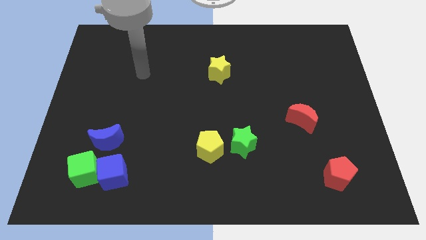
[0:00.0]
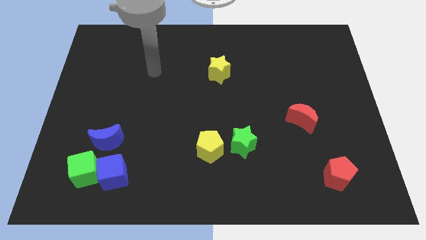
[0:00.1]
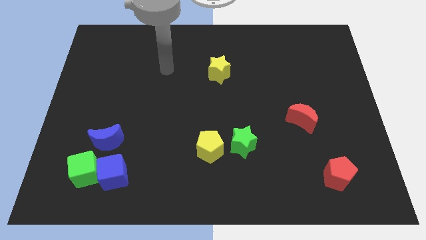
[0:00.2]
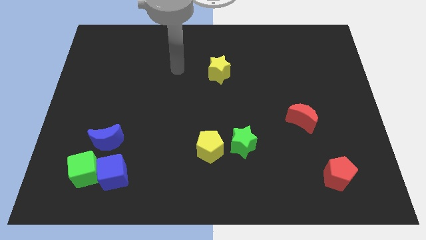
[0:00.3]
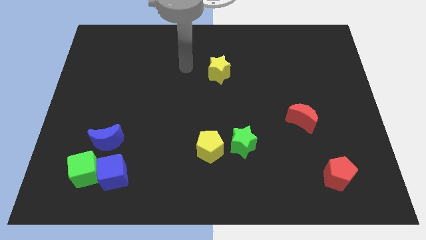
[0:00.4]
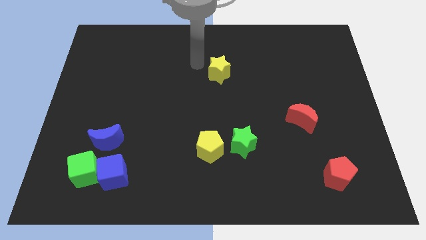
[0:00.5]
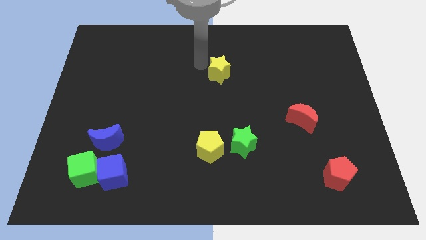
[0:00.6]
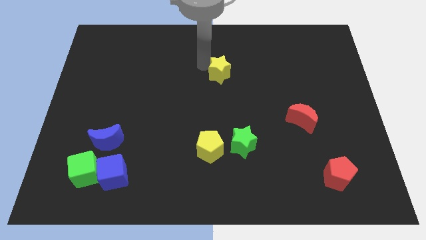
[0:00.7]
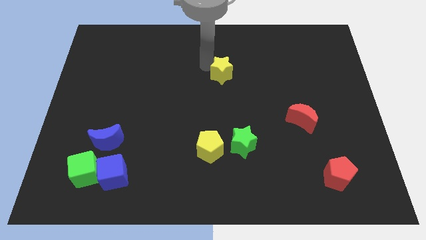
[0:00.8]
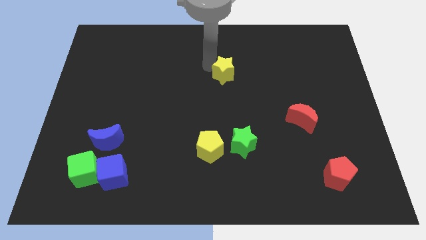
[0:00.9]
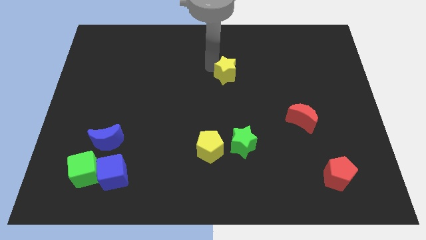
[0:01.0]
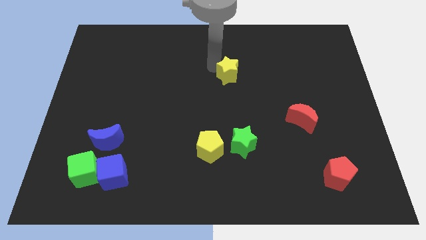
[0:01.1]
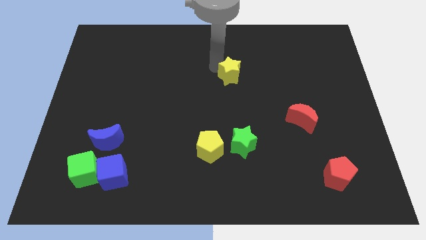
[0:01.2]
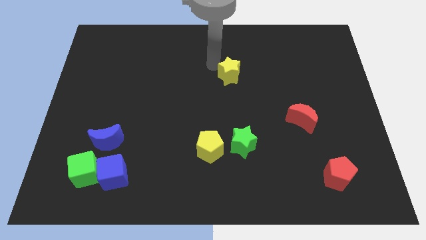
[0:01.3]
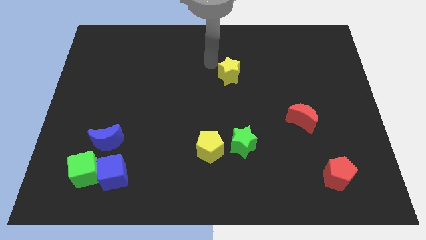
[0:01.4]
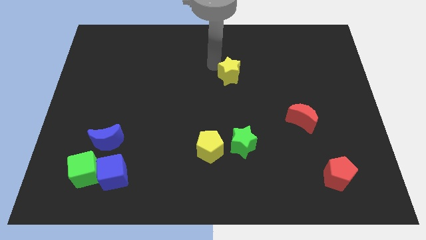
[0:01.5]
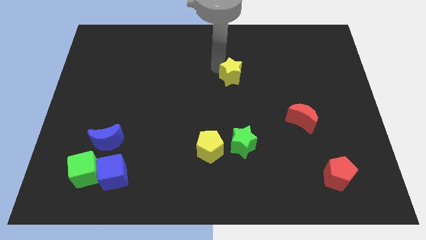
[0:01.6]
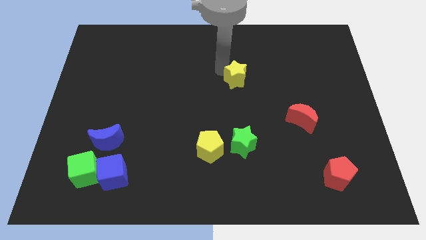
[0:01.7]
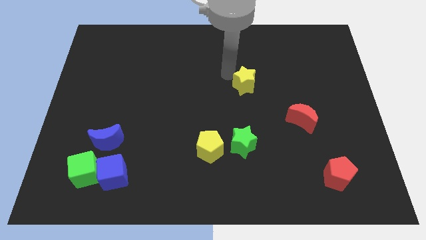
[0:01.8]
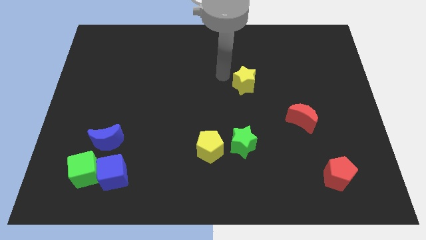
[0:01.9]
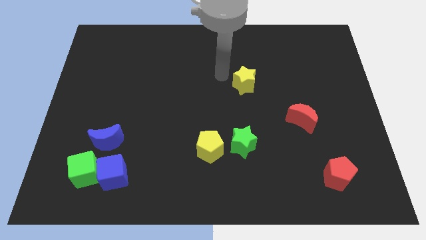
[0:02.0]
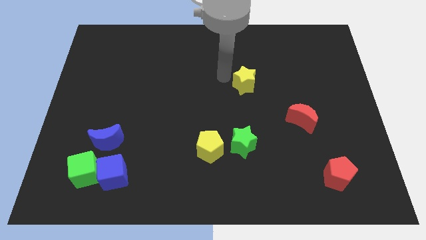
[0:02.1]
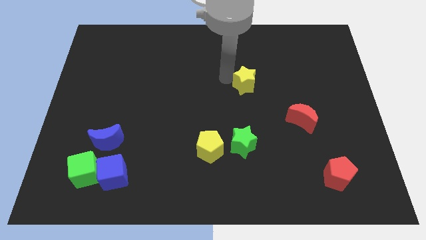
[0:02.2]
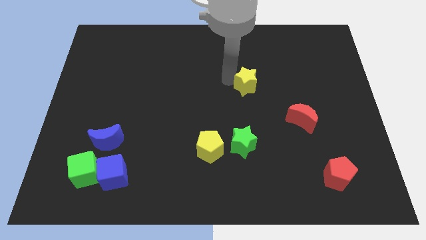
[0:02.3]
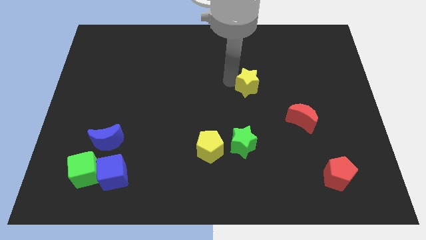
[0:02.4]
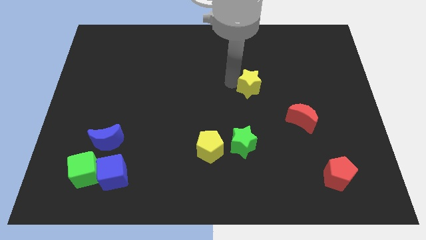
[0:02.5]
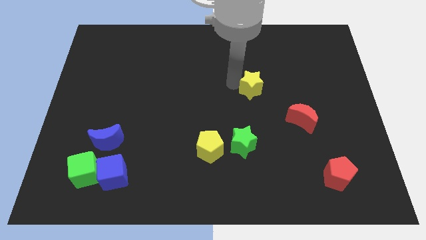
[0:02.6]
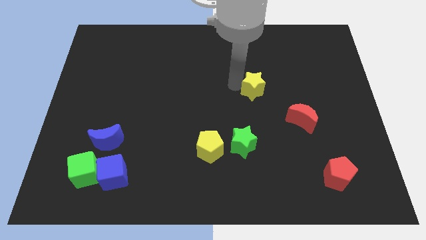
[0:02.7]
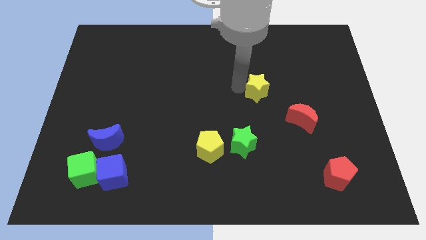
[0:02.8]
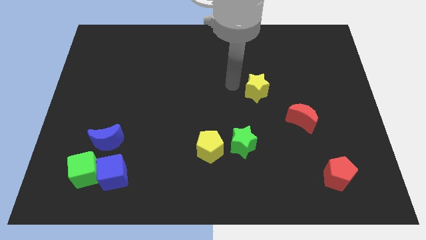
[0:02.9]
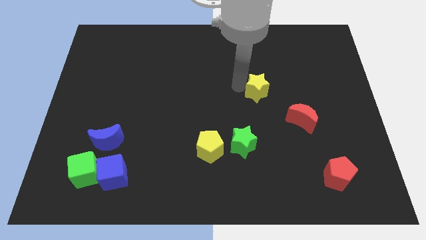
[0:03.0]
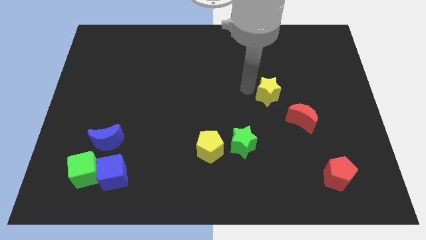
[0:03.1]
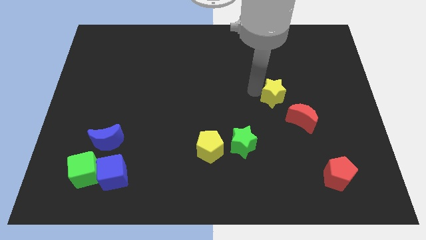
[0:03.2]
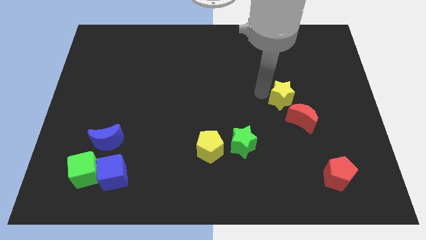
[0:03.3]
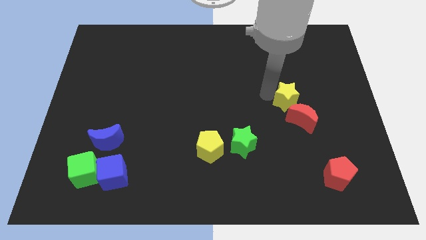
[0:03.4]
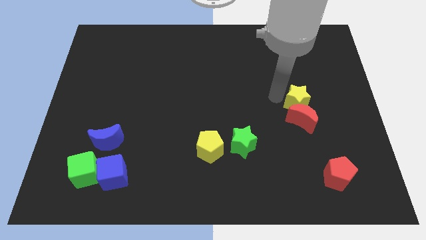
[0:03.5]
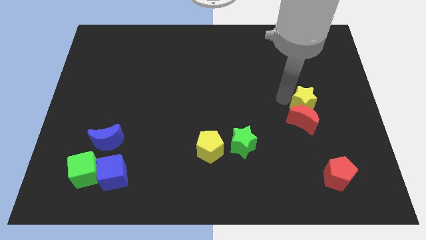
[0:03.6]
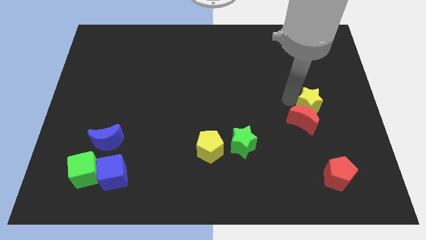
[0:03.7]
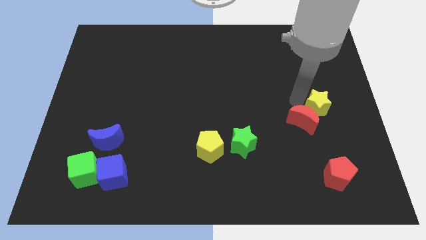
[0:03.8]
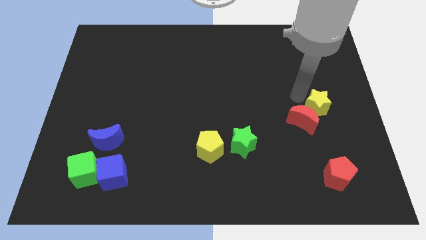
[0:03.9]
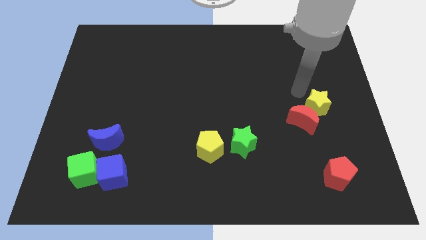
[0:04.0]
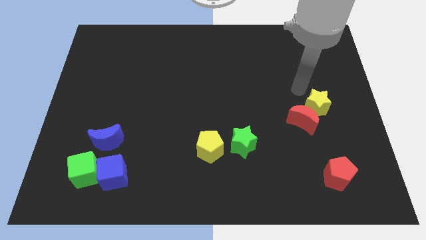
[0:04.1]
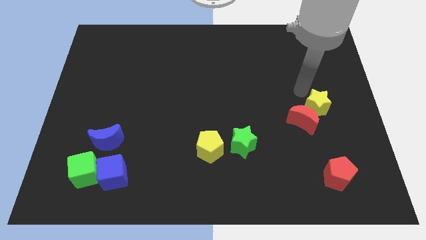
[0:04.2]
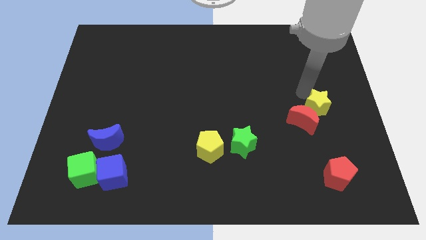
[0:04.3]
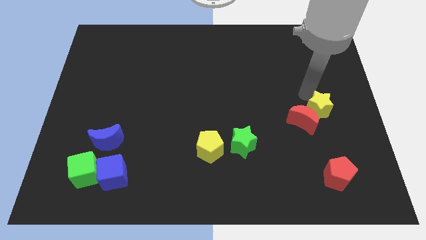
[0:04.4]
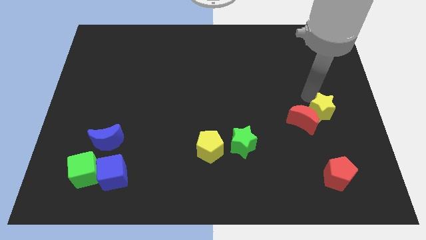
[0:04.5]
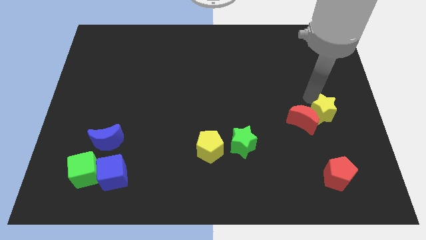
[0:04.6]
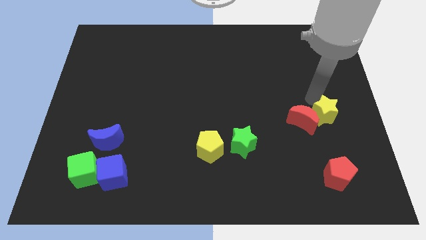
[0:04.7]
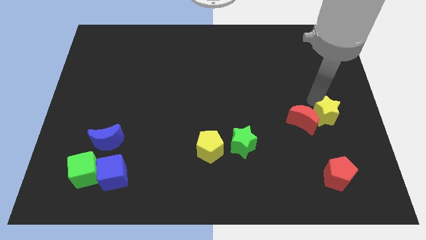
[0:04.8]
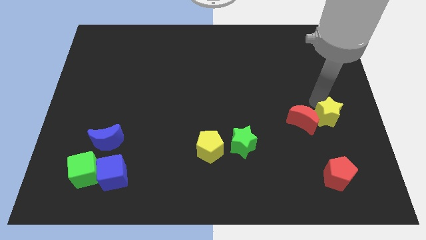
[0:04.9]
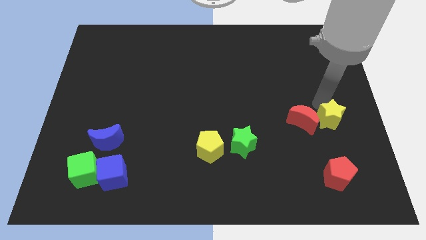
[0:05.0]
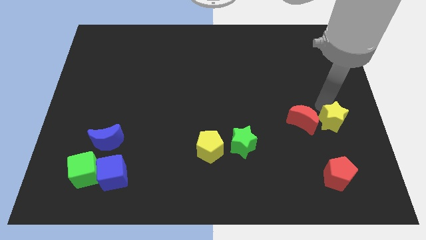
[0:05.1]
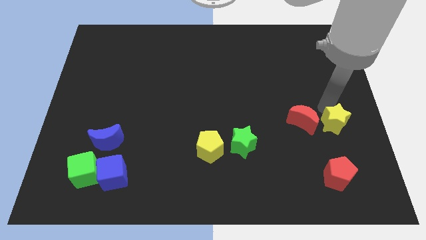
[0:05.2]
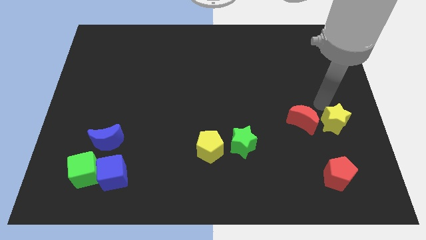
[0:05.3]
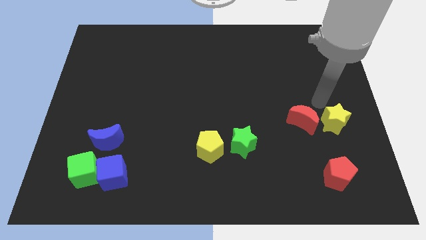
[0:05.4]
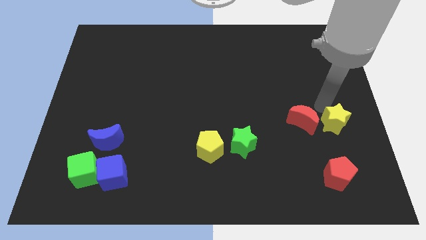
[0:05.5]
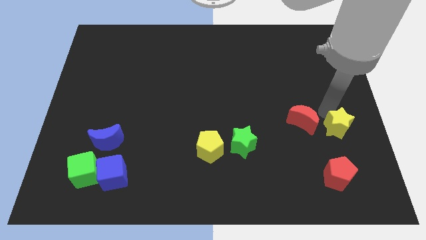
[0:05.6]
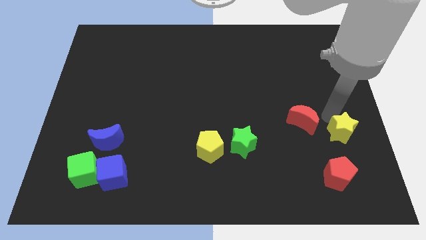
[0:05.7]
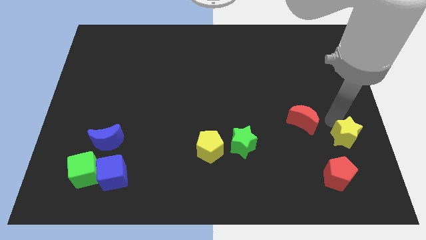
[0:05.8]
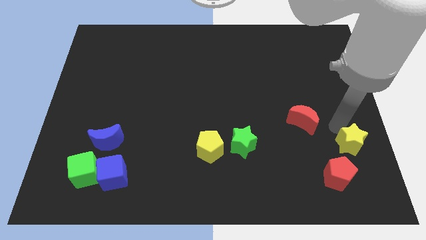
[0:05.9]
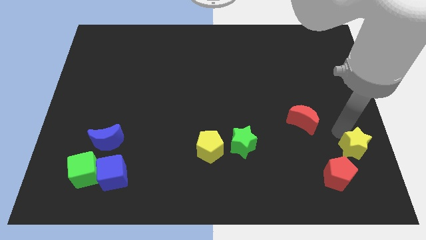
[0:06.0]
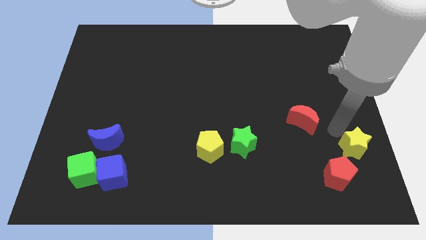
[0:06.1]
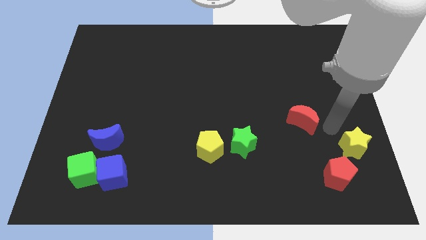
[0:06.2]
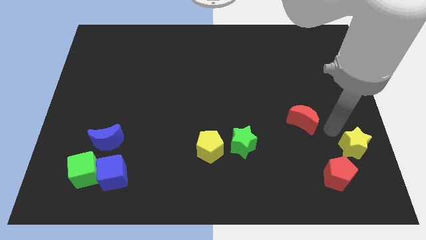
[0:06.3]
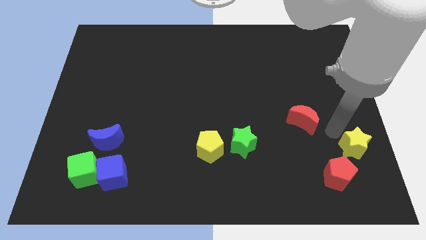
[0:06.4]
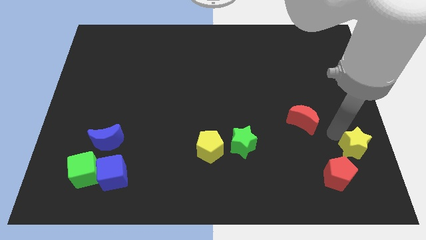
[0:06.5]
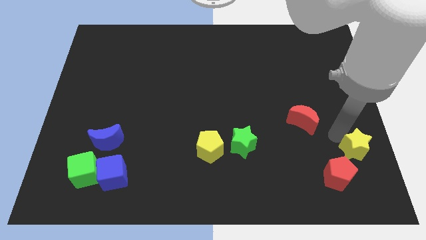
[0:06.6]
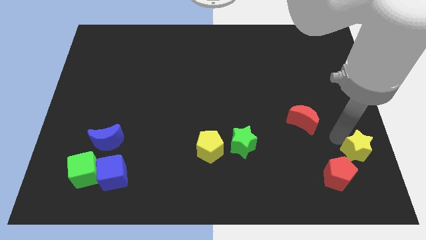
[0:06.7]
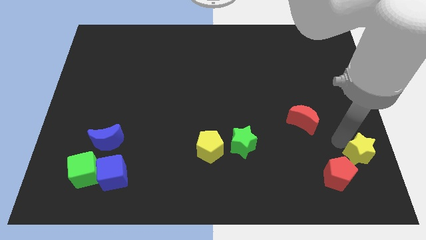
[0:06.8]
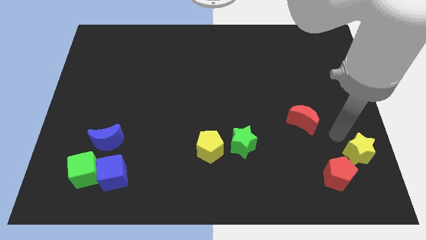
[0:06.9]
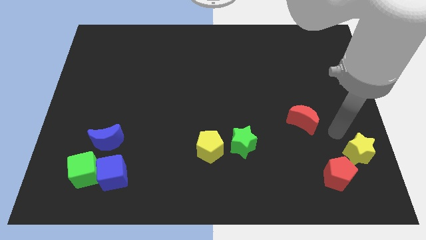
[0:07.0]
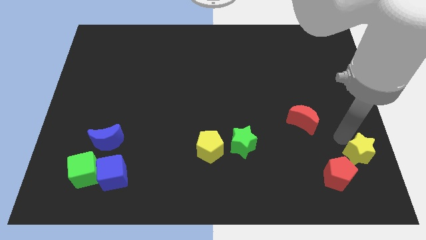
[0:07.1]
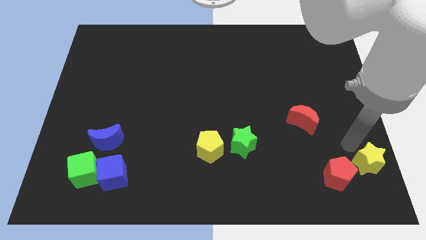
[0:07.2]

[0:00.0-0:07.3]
push the yellow star to the bottom right corner
